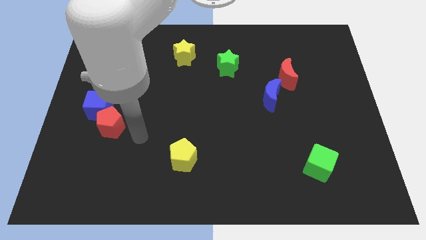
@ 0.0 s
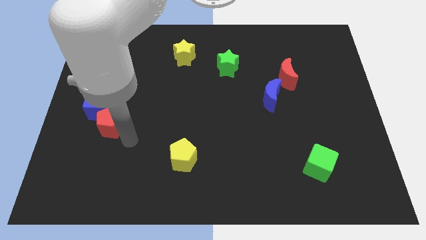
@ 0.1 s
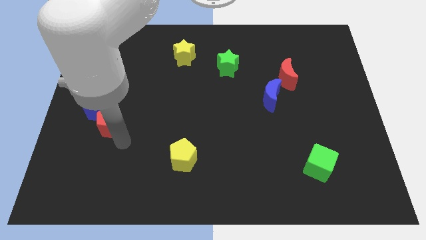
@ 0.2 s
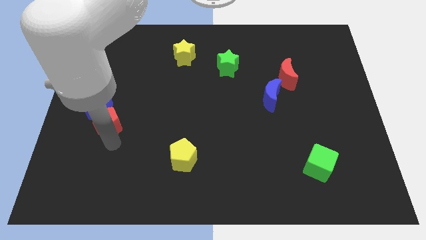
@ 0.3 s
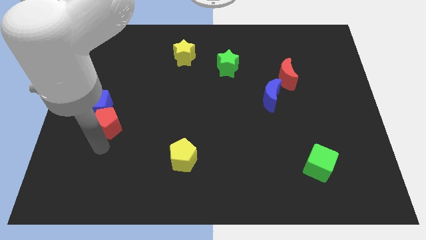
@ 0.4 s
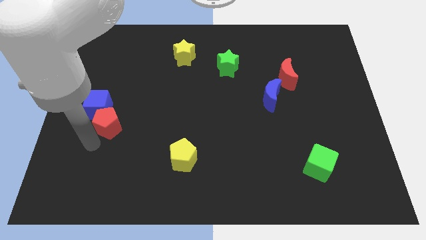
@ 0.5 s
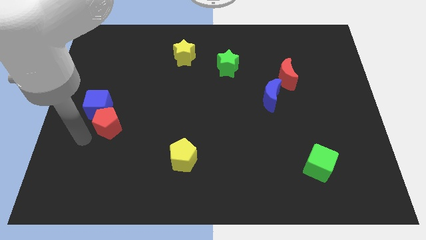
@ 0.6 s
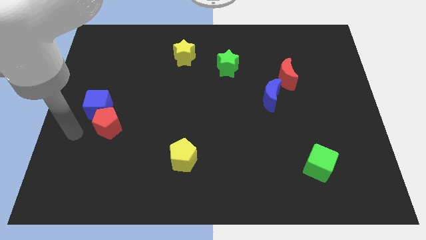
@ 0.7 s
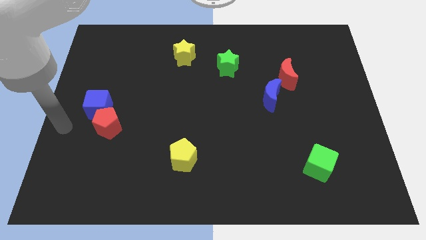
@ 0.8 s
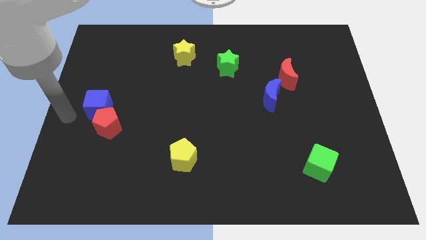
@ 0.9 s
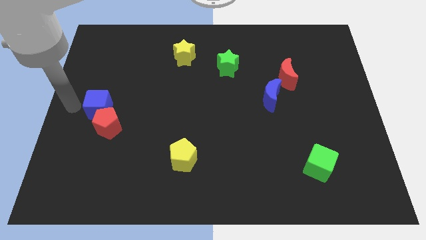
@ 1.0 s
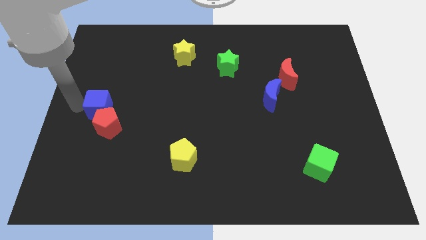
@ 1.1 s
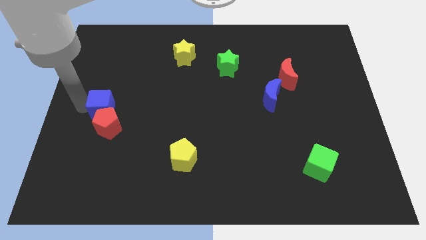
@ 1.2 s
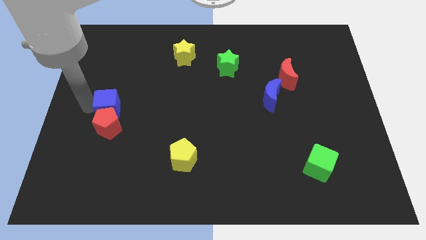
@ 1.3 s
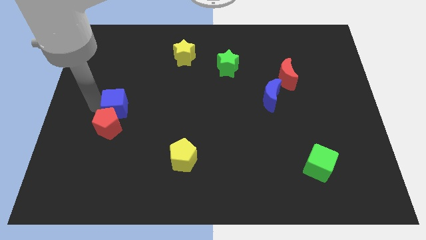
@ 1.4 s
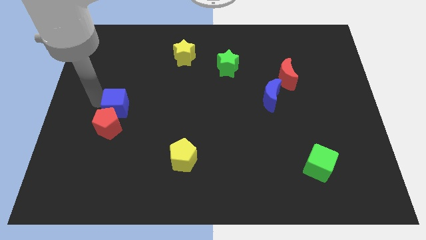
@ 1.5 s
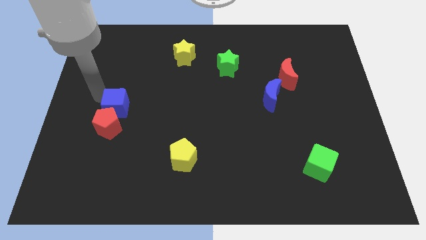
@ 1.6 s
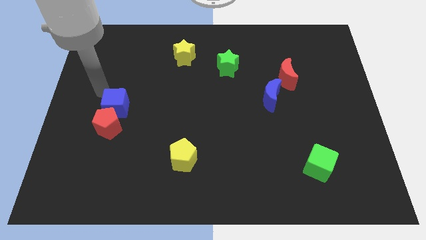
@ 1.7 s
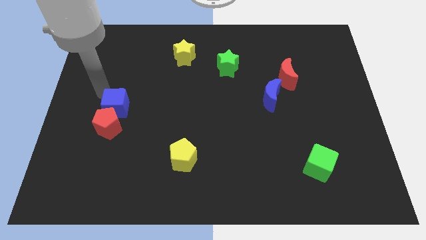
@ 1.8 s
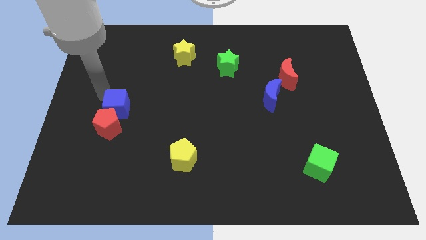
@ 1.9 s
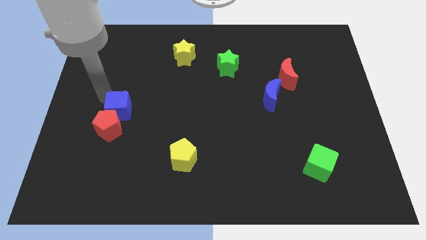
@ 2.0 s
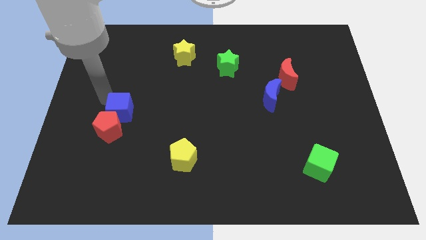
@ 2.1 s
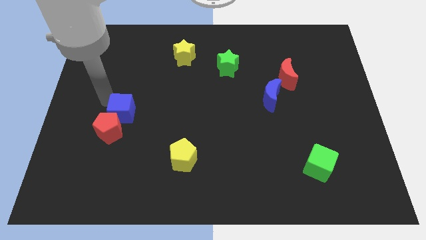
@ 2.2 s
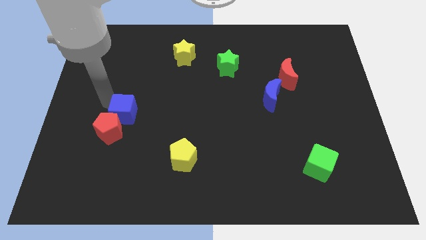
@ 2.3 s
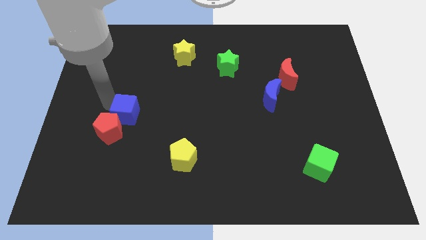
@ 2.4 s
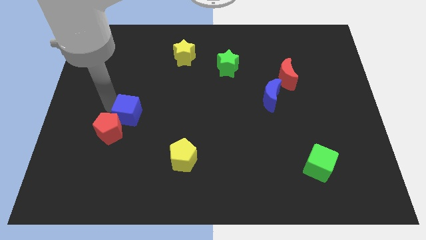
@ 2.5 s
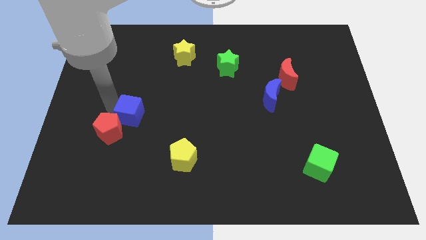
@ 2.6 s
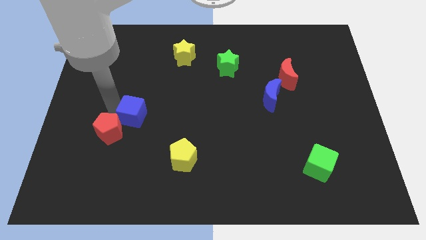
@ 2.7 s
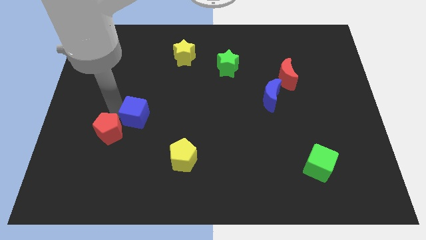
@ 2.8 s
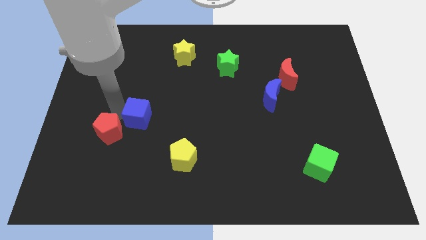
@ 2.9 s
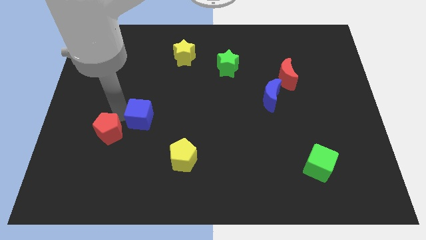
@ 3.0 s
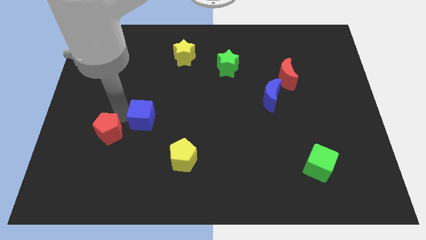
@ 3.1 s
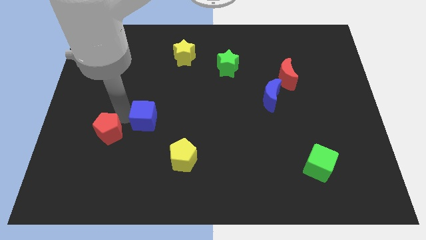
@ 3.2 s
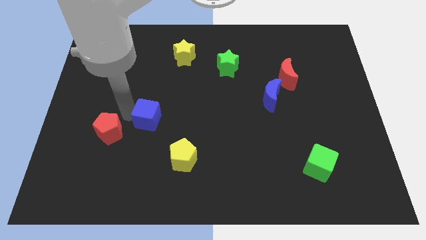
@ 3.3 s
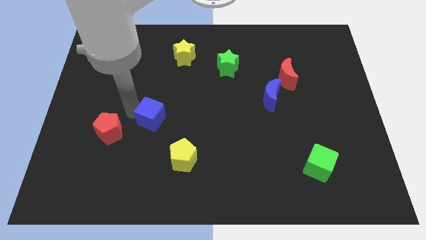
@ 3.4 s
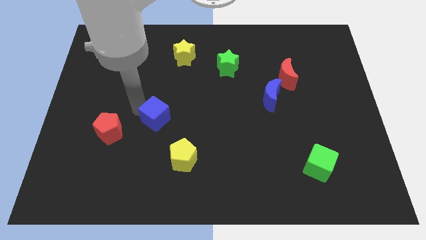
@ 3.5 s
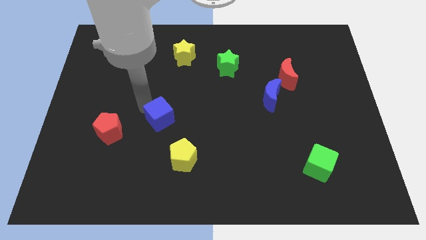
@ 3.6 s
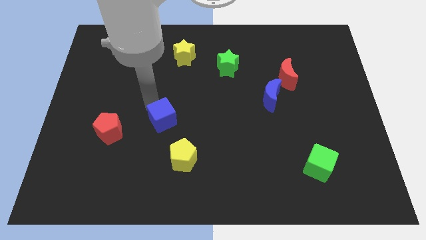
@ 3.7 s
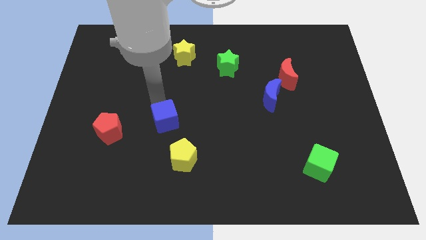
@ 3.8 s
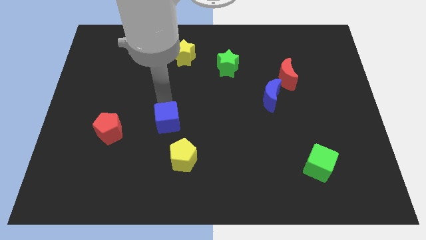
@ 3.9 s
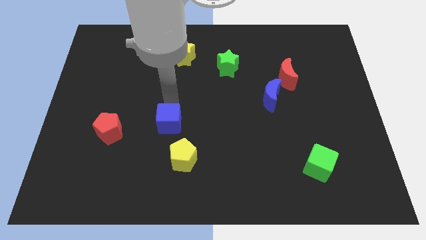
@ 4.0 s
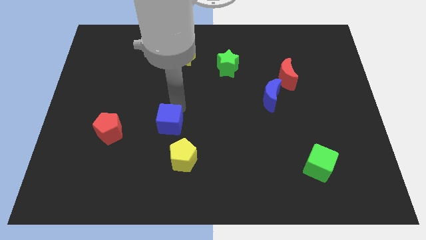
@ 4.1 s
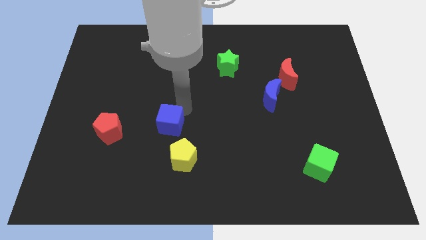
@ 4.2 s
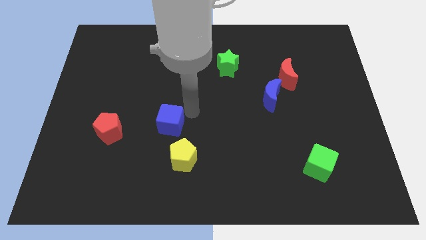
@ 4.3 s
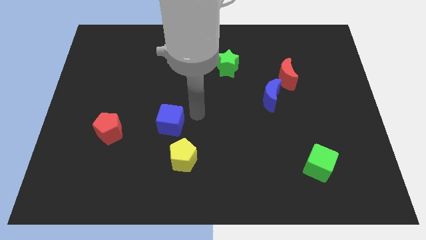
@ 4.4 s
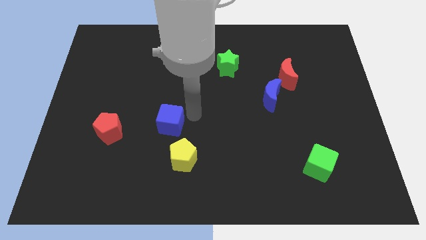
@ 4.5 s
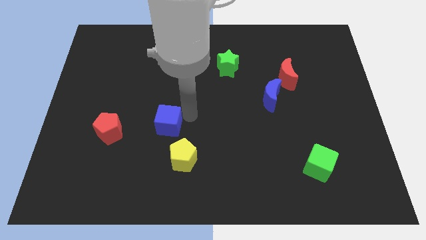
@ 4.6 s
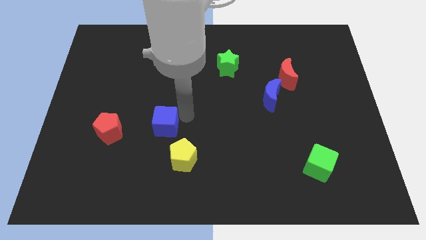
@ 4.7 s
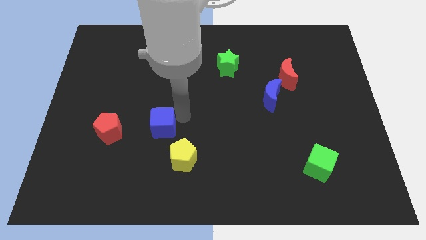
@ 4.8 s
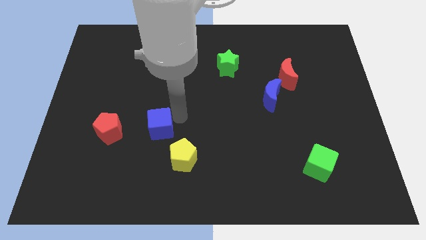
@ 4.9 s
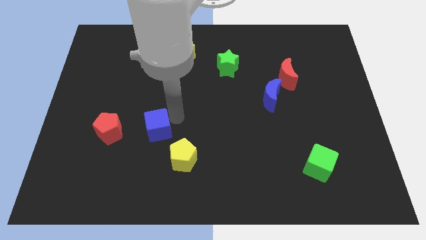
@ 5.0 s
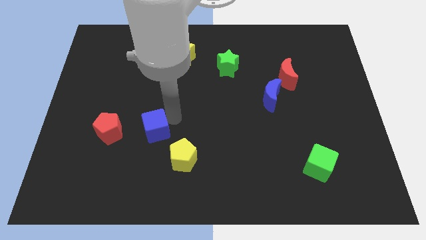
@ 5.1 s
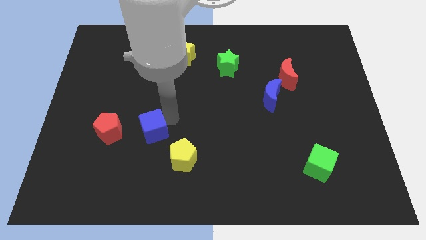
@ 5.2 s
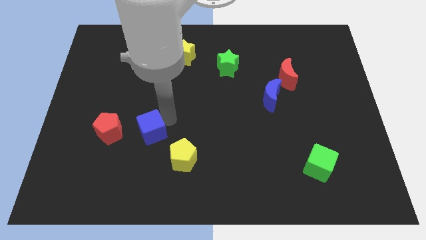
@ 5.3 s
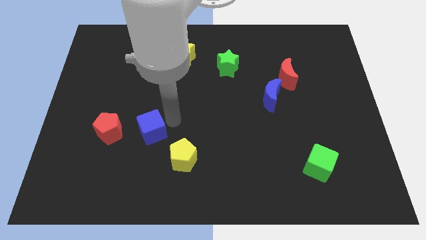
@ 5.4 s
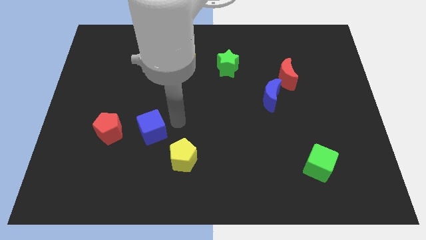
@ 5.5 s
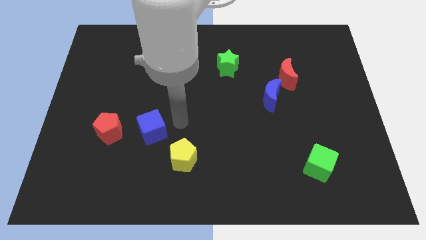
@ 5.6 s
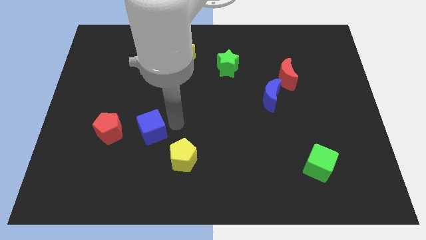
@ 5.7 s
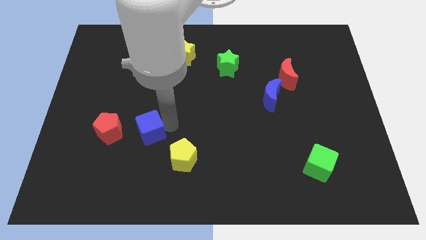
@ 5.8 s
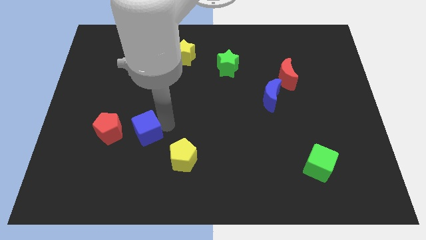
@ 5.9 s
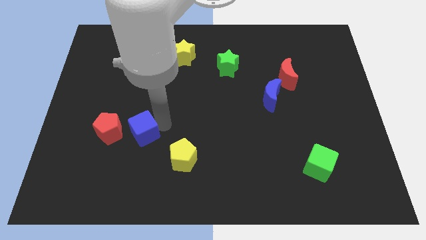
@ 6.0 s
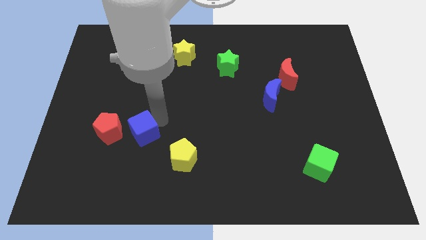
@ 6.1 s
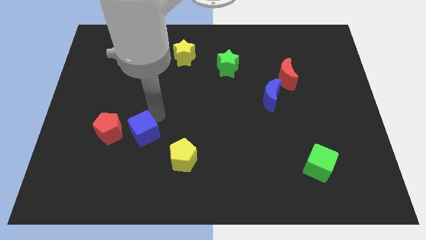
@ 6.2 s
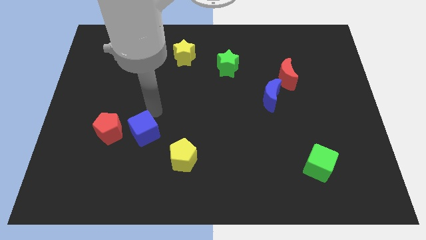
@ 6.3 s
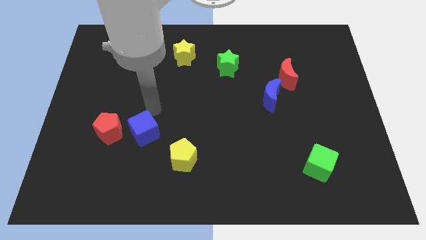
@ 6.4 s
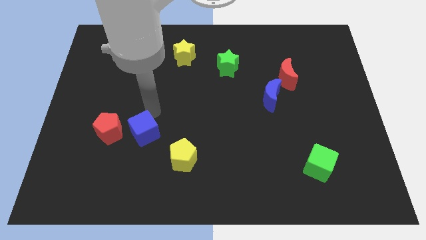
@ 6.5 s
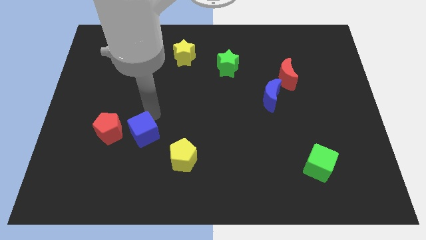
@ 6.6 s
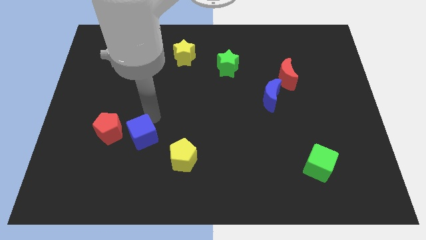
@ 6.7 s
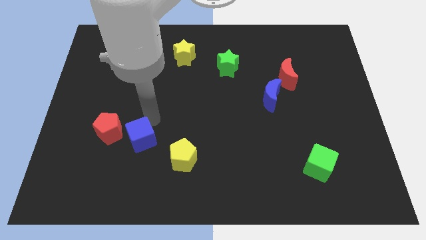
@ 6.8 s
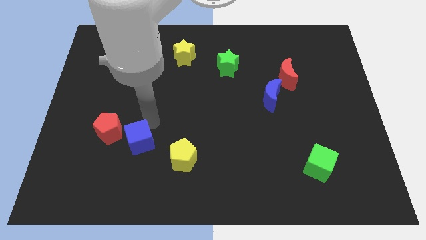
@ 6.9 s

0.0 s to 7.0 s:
slide the blue cube to the left side of the yellow pentagon

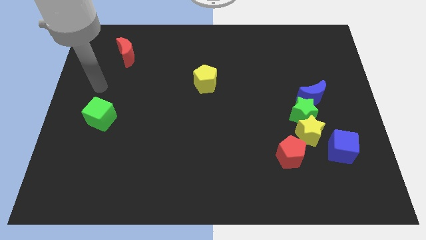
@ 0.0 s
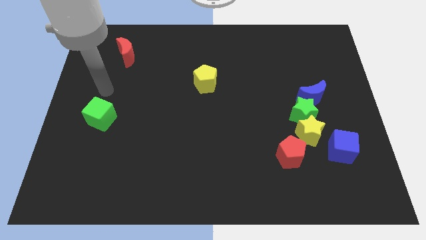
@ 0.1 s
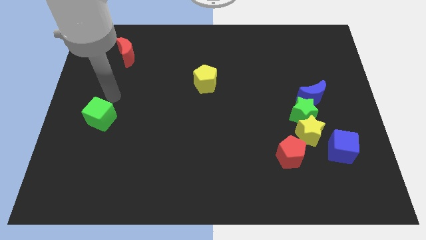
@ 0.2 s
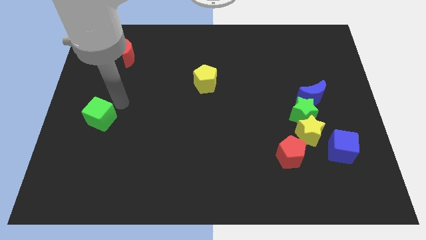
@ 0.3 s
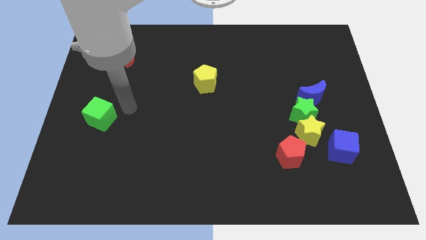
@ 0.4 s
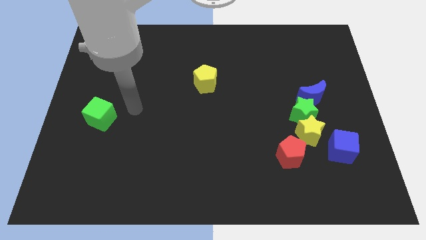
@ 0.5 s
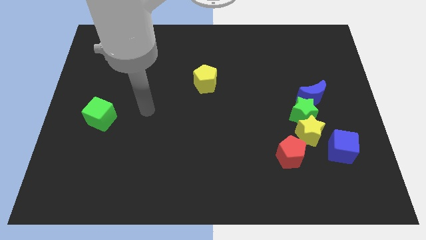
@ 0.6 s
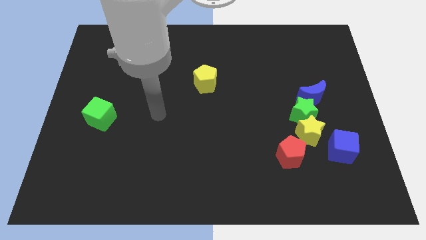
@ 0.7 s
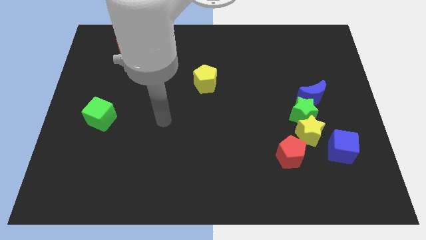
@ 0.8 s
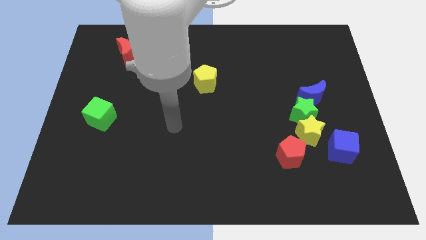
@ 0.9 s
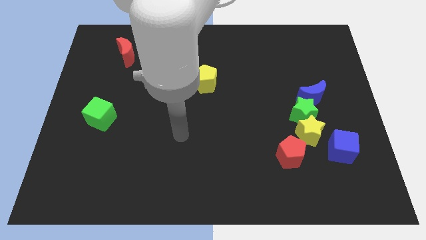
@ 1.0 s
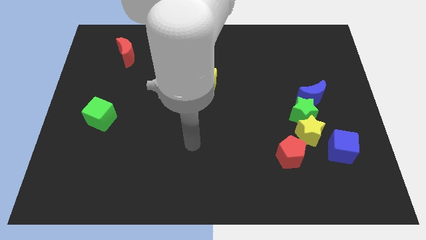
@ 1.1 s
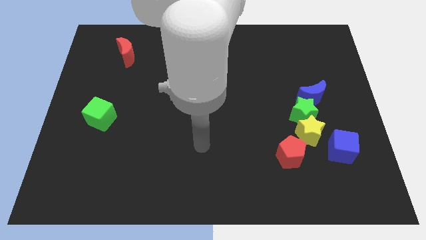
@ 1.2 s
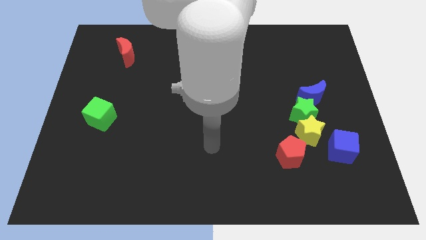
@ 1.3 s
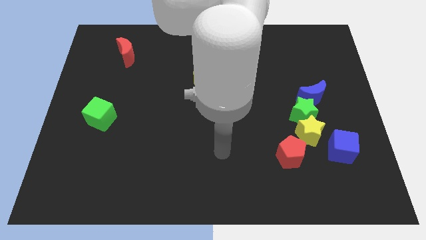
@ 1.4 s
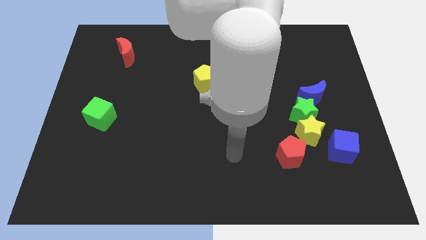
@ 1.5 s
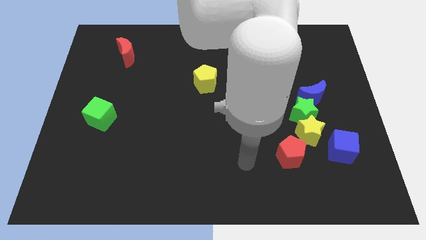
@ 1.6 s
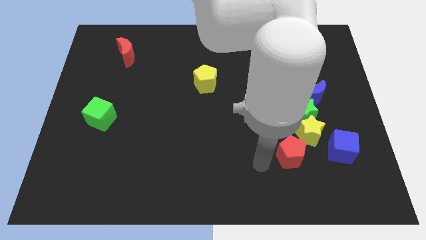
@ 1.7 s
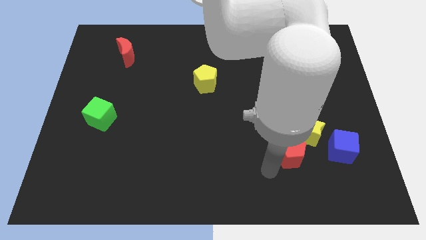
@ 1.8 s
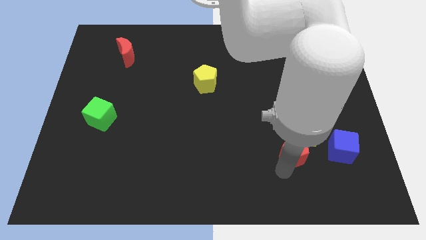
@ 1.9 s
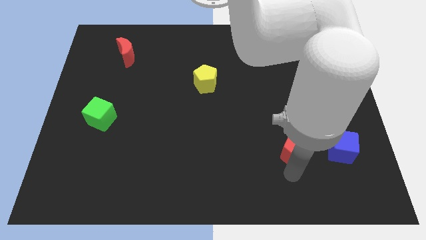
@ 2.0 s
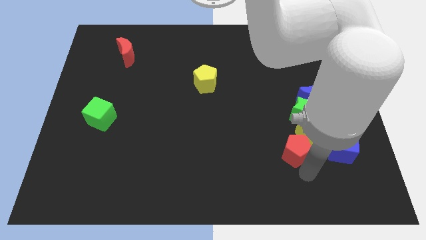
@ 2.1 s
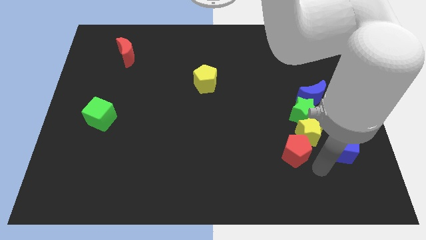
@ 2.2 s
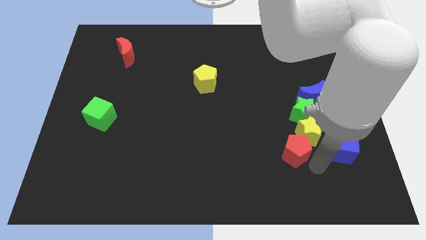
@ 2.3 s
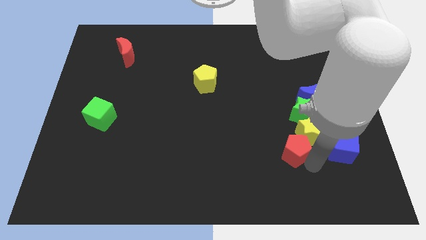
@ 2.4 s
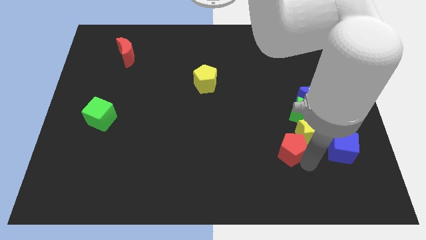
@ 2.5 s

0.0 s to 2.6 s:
slide the red pentagon to the left side of the yellow star
